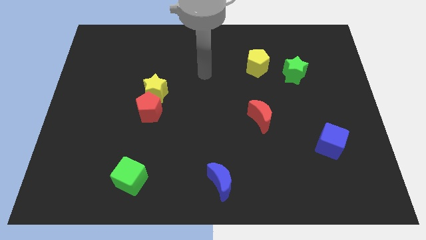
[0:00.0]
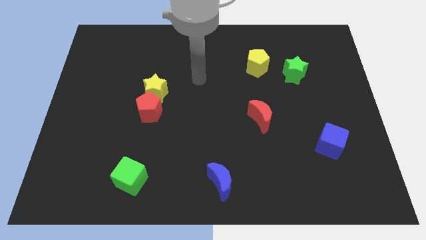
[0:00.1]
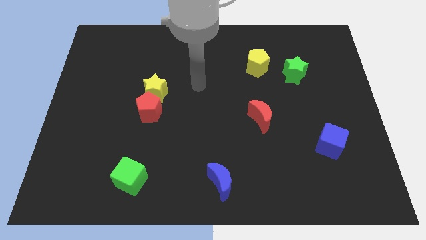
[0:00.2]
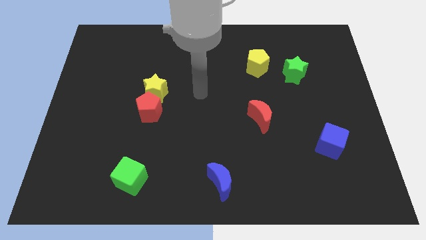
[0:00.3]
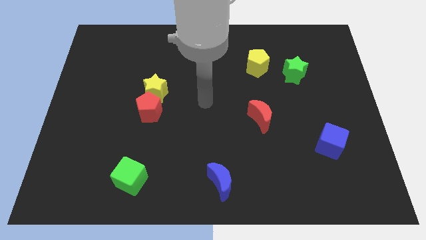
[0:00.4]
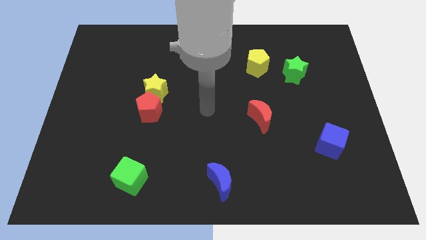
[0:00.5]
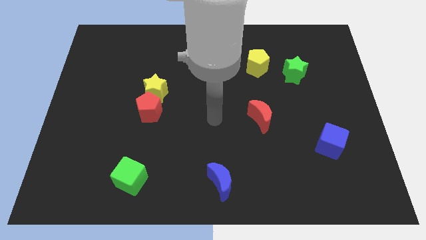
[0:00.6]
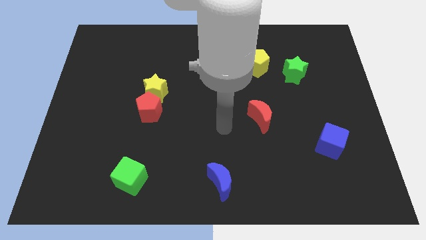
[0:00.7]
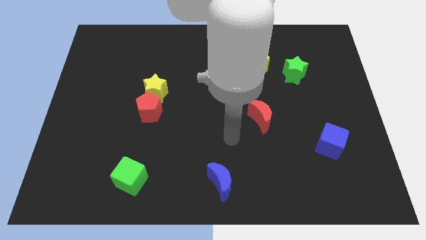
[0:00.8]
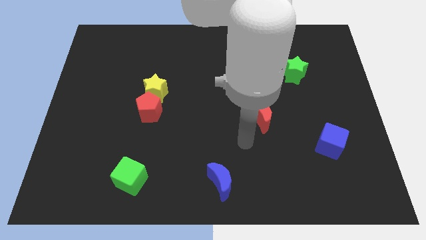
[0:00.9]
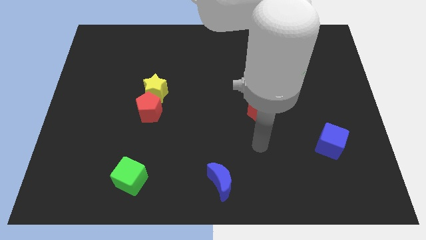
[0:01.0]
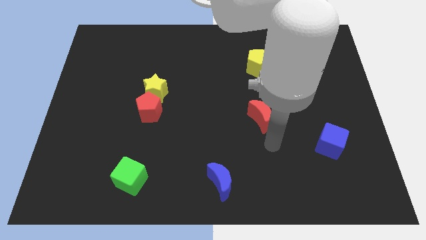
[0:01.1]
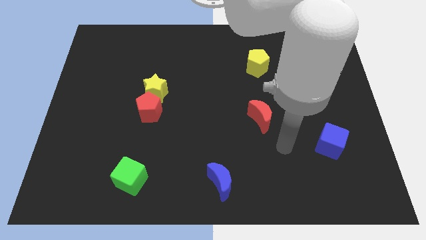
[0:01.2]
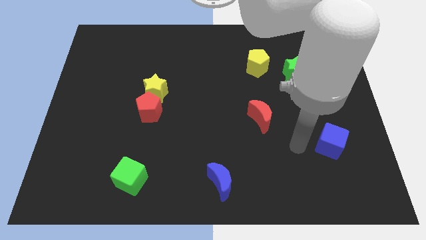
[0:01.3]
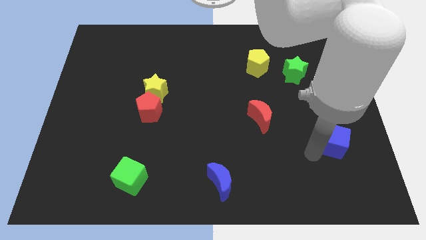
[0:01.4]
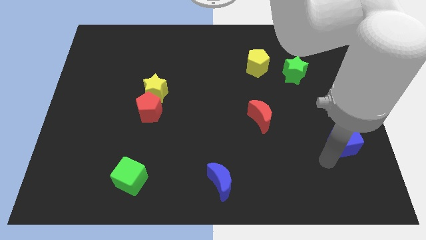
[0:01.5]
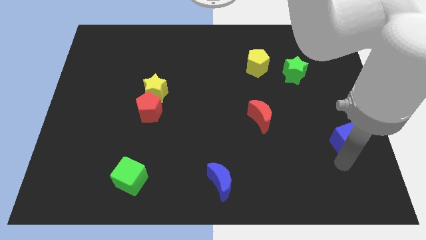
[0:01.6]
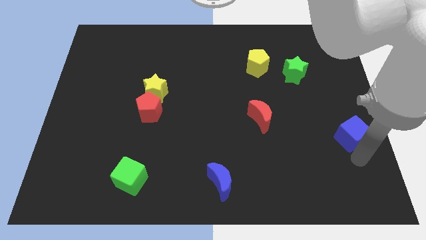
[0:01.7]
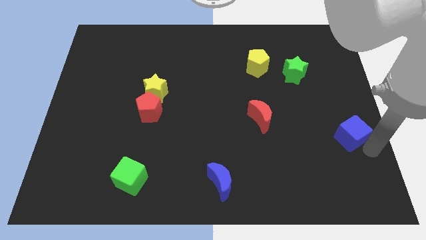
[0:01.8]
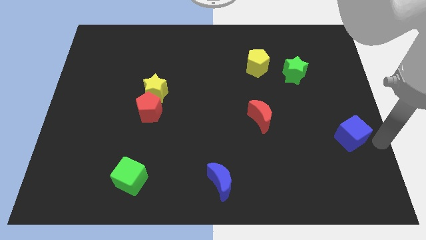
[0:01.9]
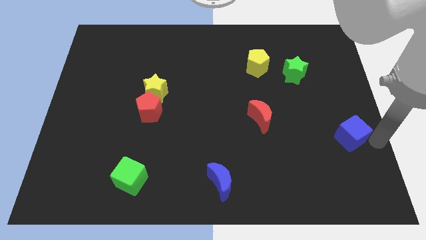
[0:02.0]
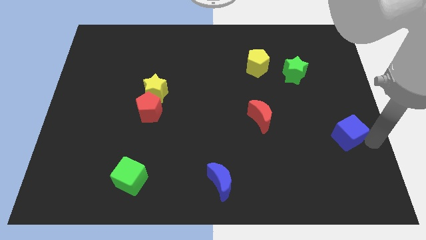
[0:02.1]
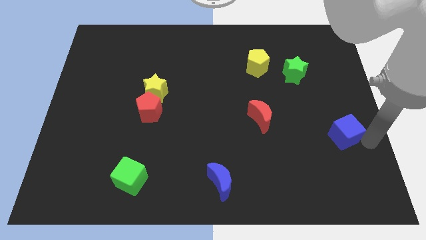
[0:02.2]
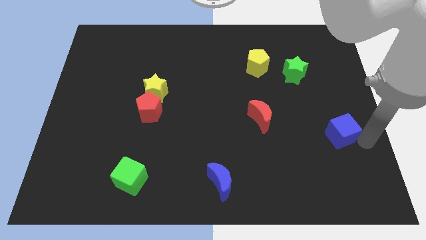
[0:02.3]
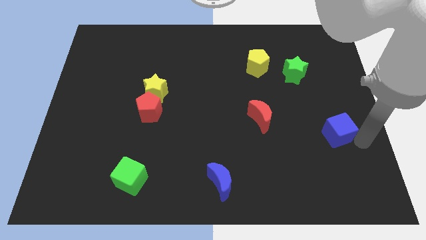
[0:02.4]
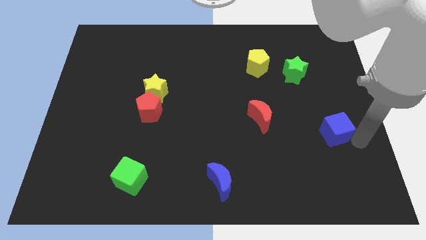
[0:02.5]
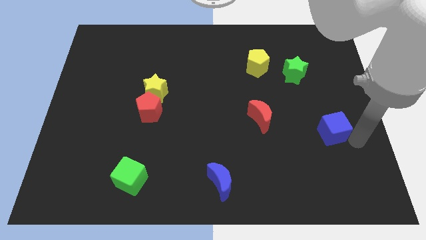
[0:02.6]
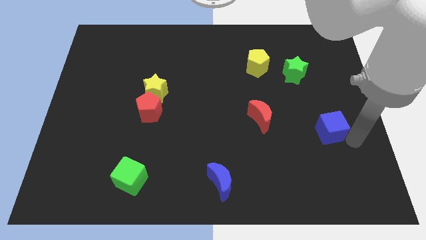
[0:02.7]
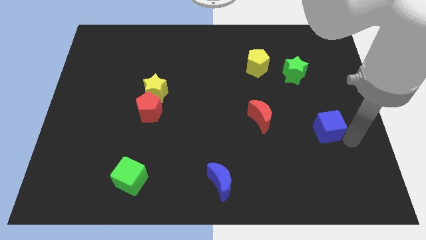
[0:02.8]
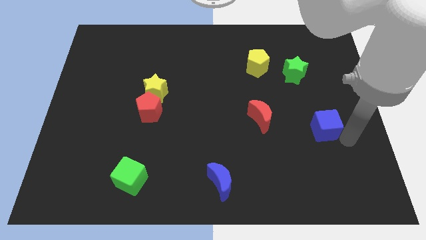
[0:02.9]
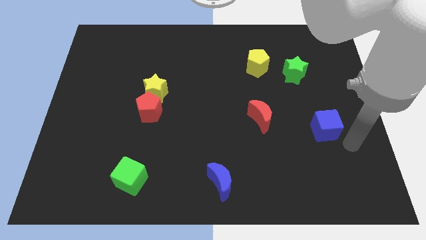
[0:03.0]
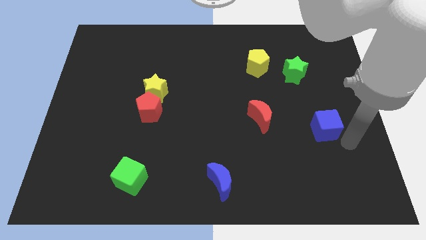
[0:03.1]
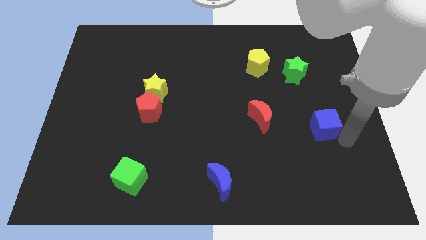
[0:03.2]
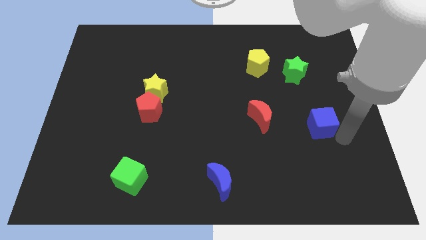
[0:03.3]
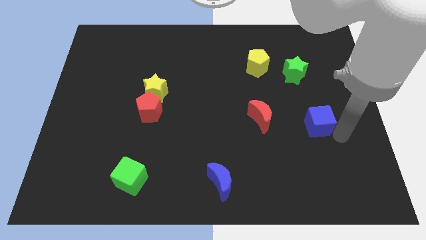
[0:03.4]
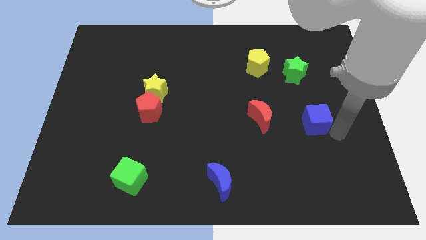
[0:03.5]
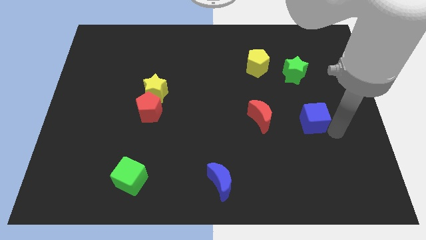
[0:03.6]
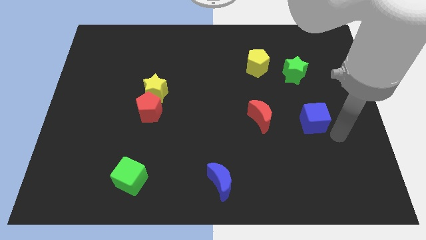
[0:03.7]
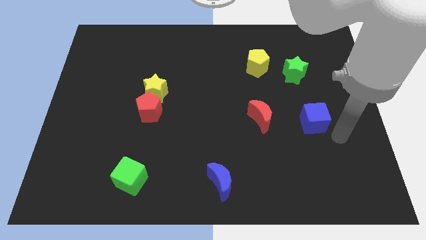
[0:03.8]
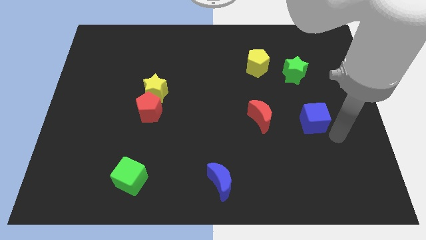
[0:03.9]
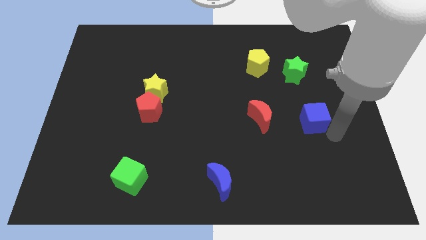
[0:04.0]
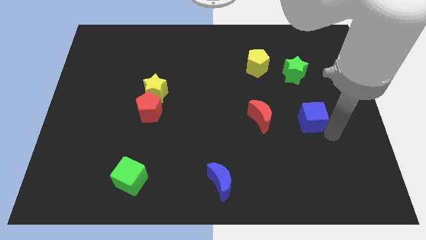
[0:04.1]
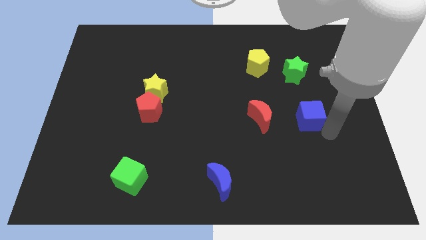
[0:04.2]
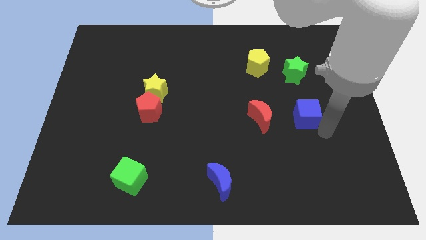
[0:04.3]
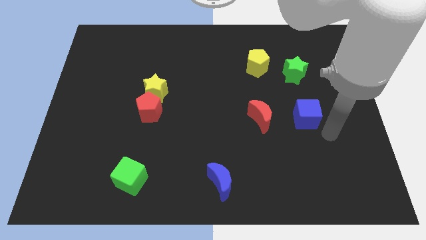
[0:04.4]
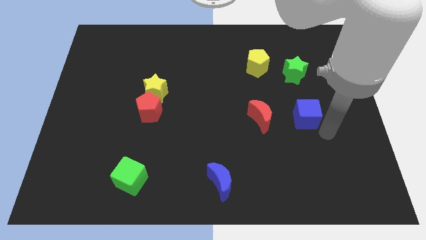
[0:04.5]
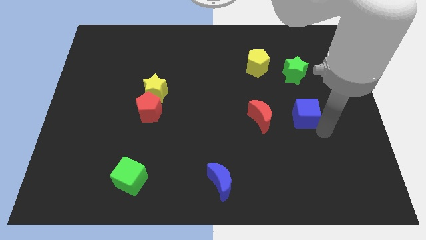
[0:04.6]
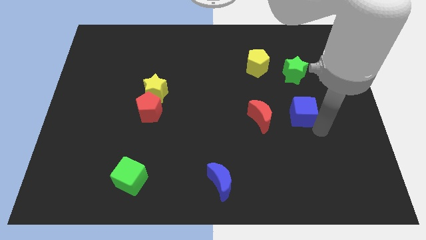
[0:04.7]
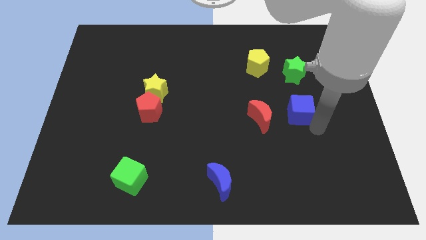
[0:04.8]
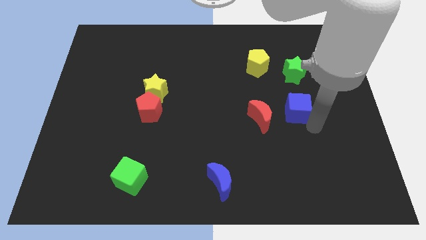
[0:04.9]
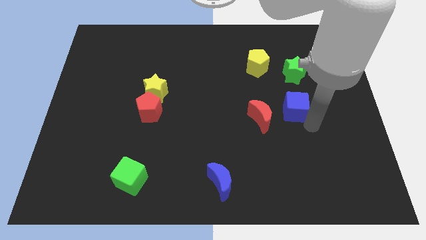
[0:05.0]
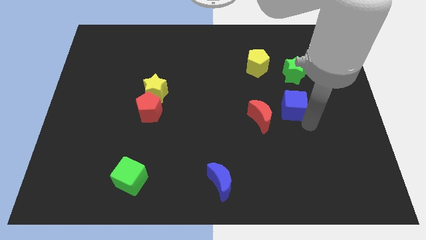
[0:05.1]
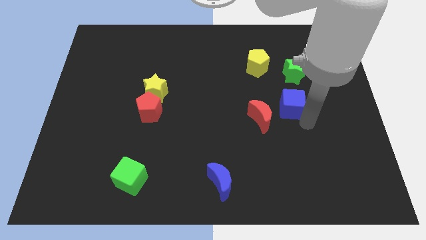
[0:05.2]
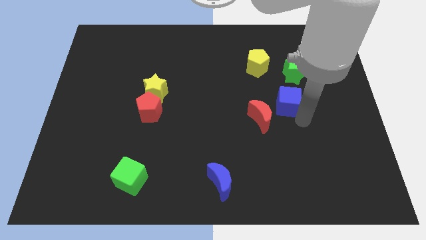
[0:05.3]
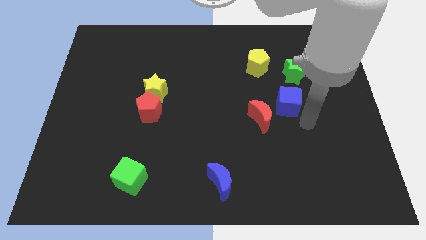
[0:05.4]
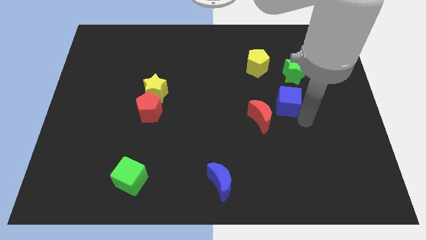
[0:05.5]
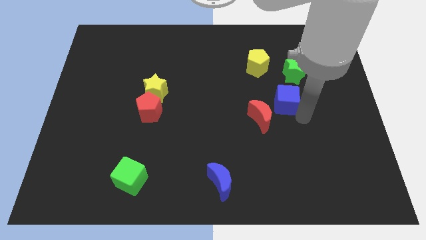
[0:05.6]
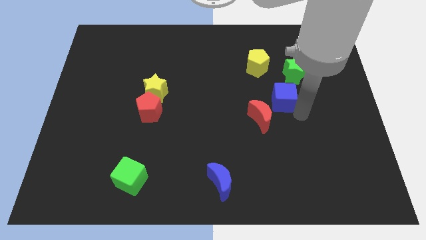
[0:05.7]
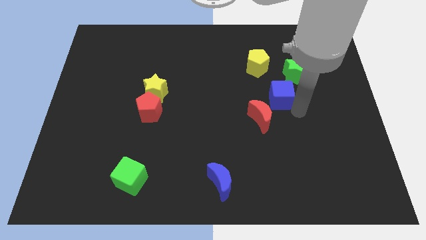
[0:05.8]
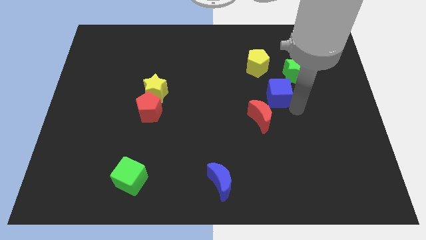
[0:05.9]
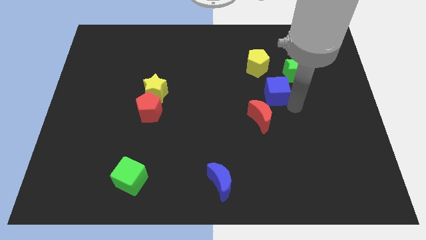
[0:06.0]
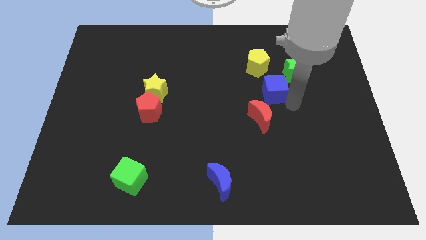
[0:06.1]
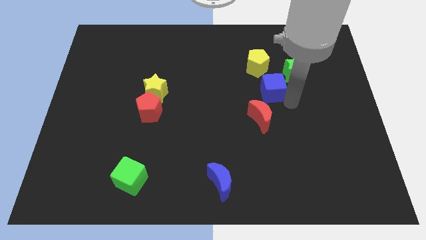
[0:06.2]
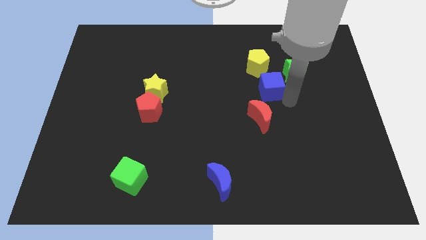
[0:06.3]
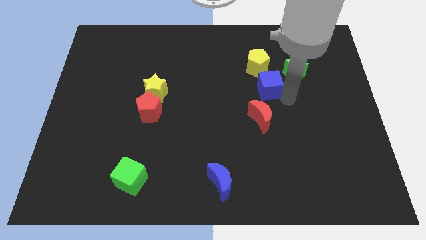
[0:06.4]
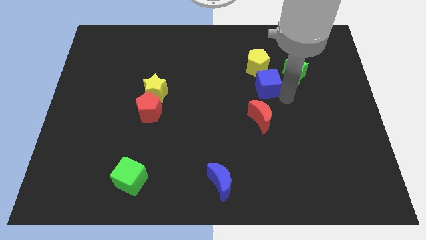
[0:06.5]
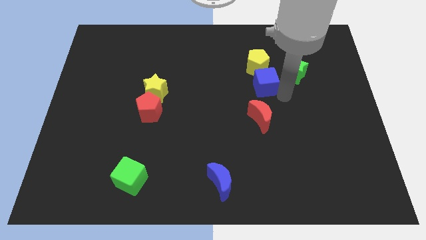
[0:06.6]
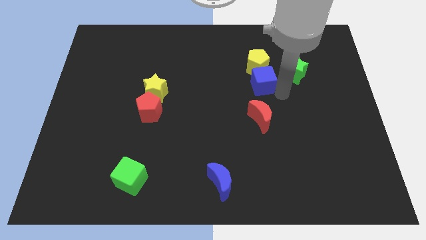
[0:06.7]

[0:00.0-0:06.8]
put the blue cube to the yellow pentagon

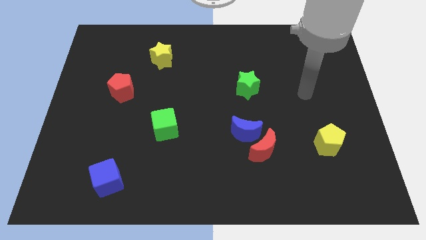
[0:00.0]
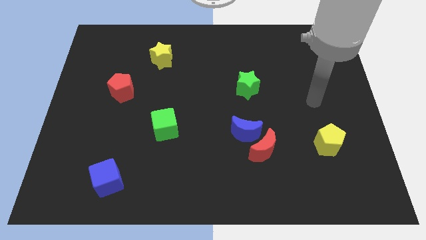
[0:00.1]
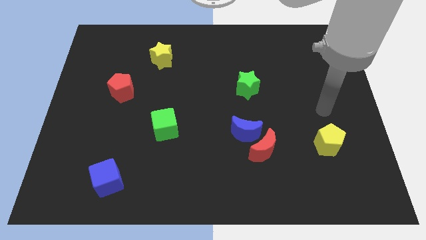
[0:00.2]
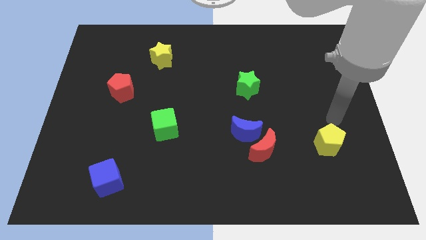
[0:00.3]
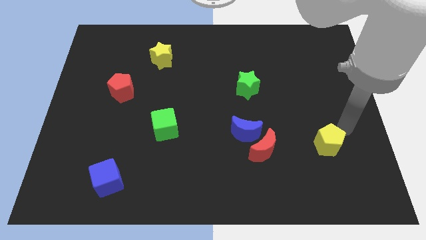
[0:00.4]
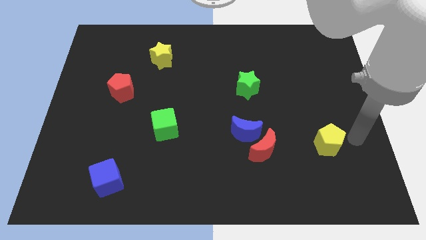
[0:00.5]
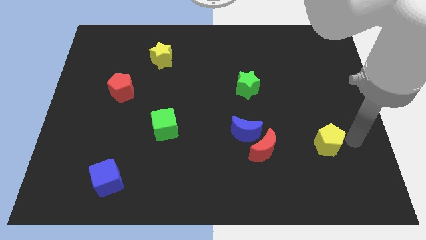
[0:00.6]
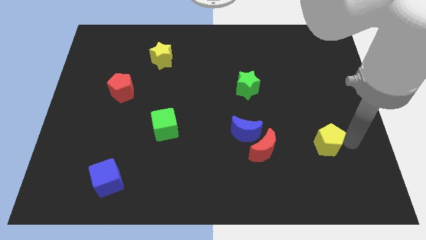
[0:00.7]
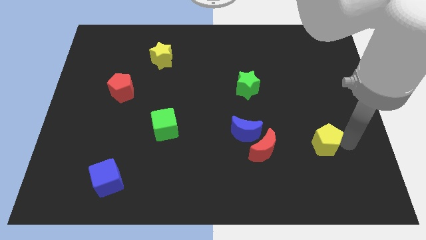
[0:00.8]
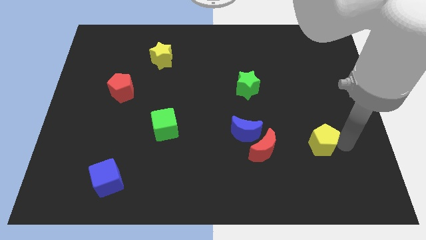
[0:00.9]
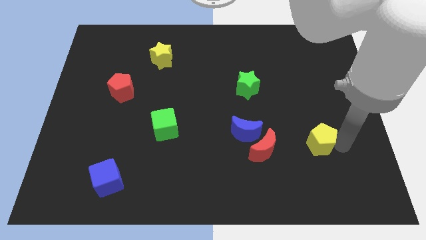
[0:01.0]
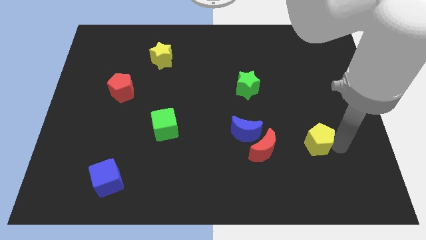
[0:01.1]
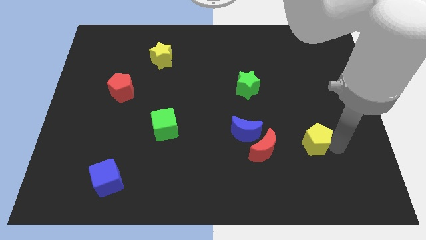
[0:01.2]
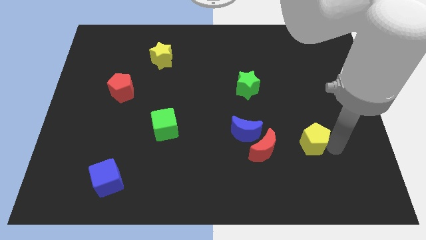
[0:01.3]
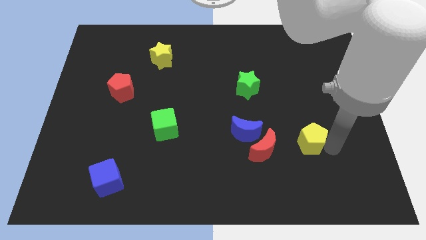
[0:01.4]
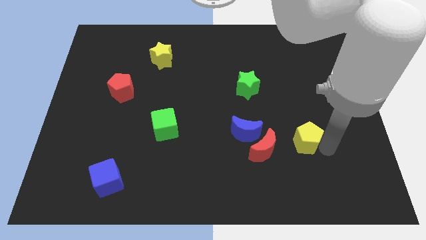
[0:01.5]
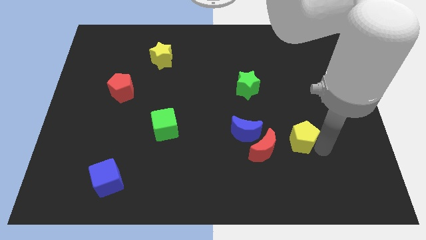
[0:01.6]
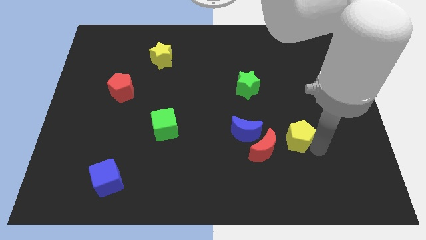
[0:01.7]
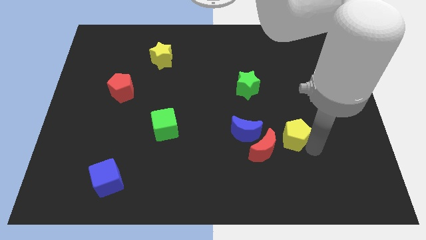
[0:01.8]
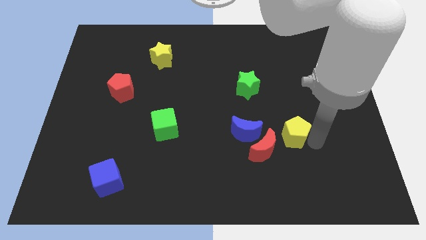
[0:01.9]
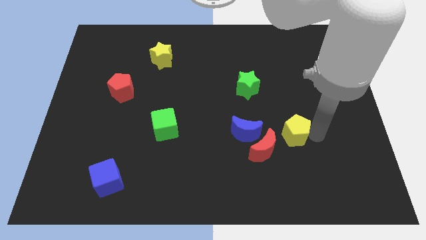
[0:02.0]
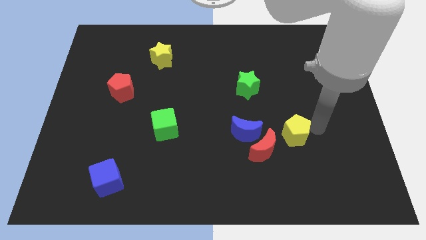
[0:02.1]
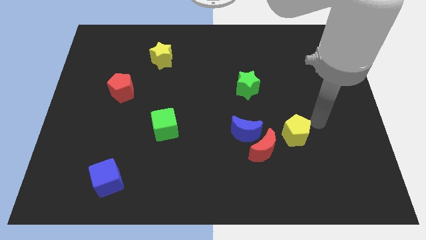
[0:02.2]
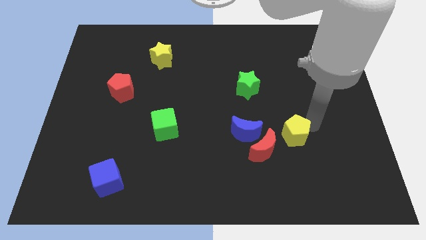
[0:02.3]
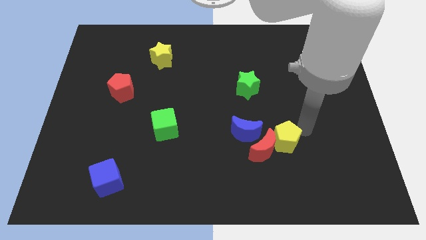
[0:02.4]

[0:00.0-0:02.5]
push the yellow pentagon towards the red moon
